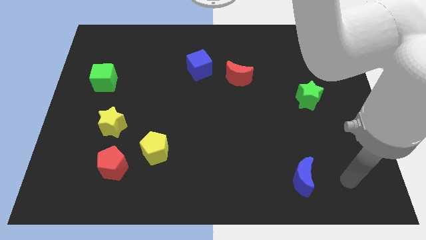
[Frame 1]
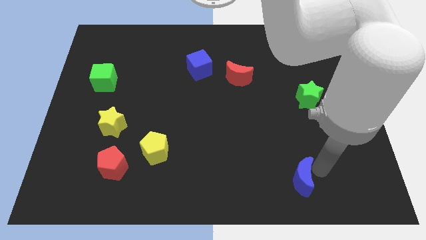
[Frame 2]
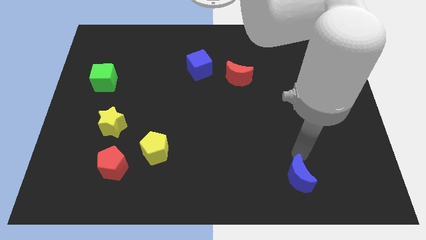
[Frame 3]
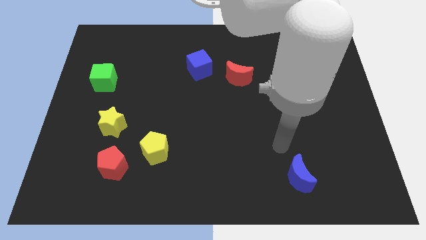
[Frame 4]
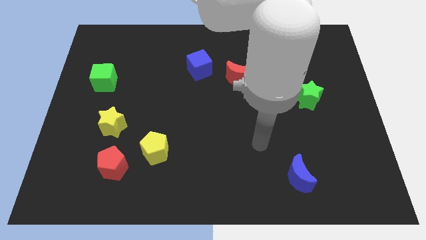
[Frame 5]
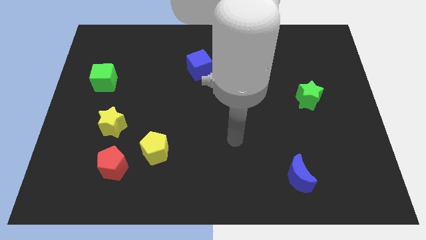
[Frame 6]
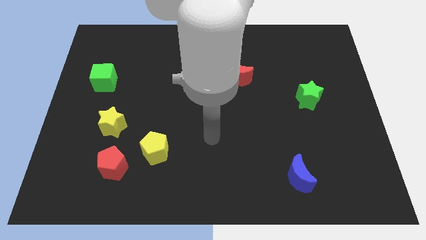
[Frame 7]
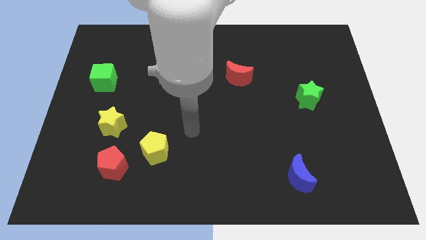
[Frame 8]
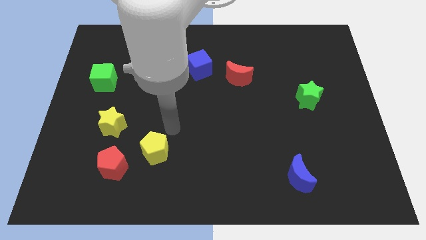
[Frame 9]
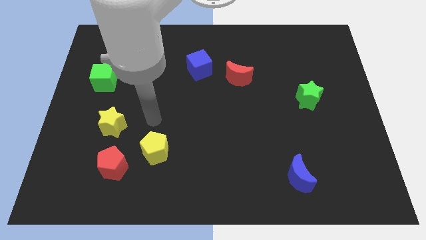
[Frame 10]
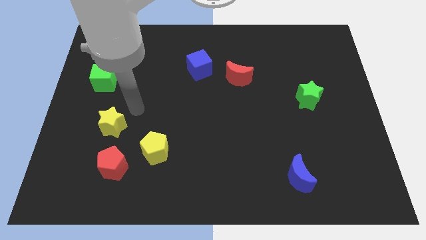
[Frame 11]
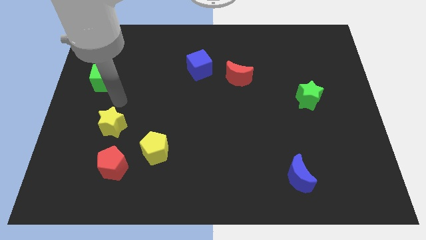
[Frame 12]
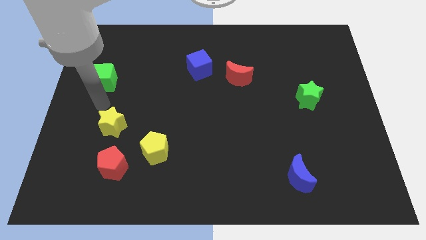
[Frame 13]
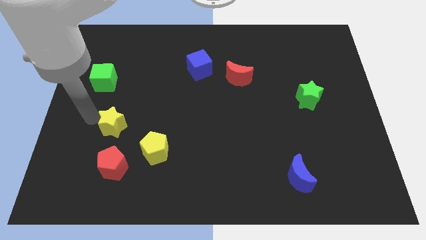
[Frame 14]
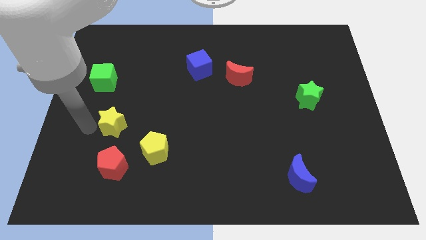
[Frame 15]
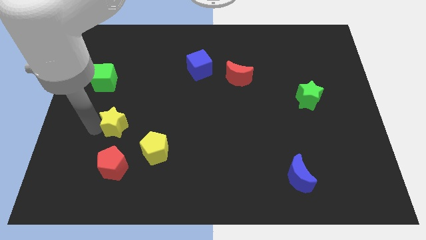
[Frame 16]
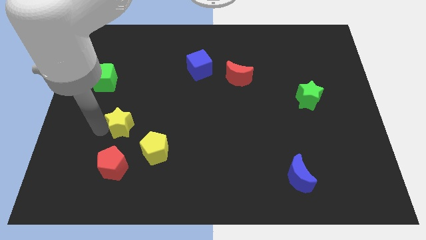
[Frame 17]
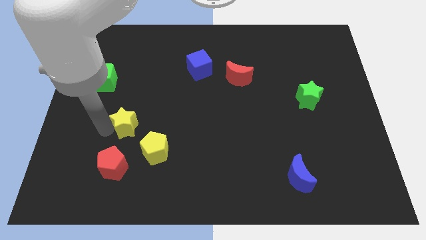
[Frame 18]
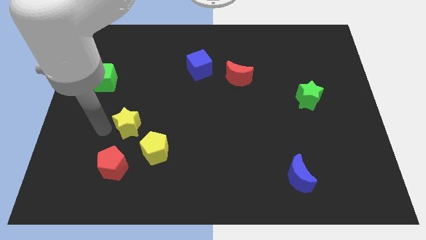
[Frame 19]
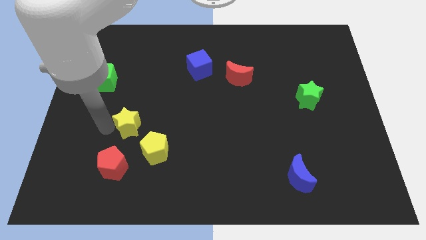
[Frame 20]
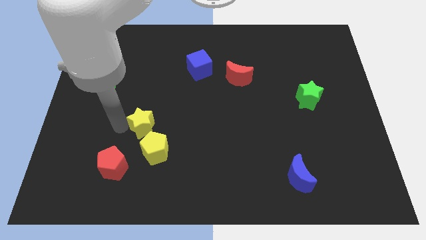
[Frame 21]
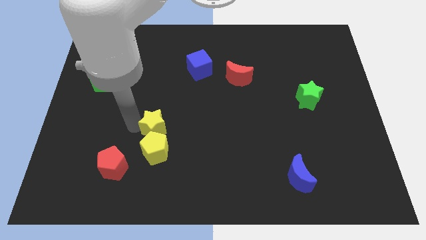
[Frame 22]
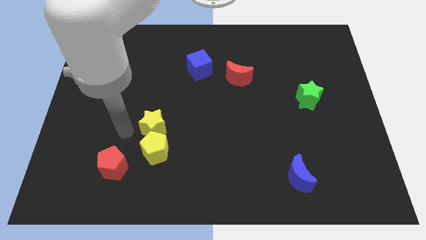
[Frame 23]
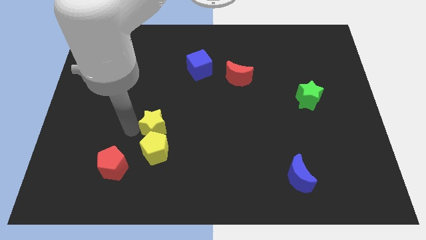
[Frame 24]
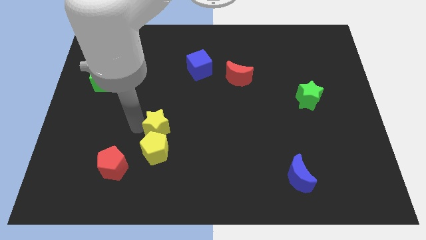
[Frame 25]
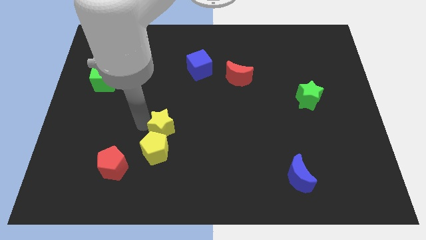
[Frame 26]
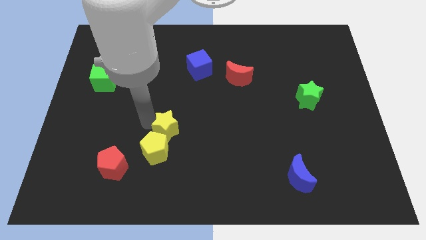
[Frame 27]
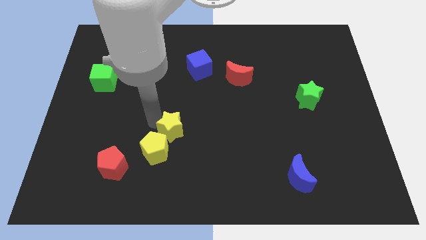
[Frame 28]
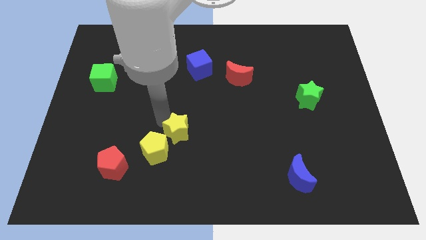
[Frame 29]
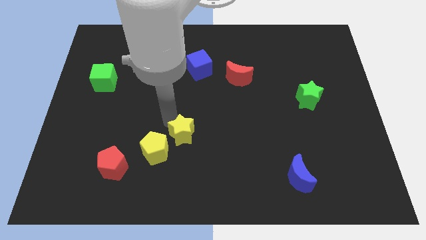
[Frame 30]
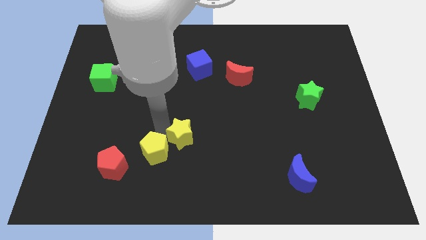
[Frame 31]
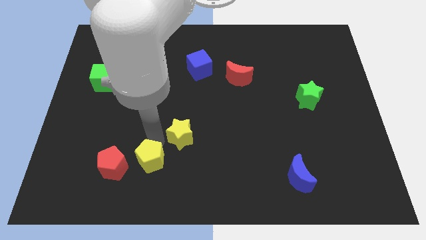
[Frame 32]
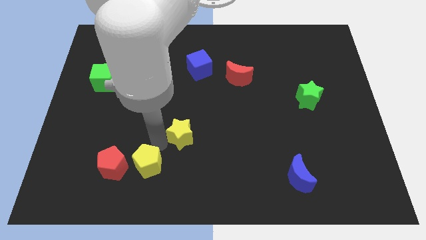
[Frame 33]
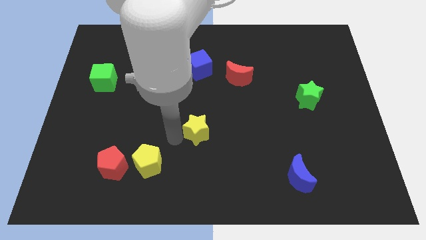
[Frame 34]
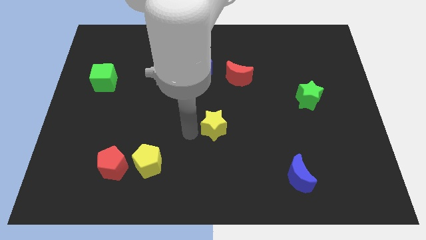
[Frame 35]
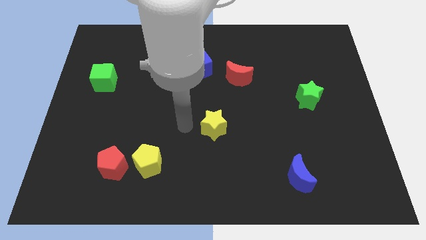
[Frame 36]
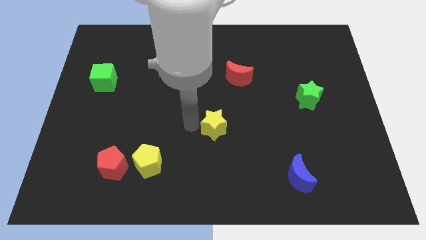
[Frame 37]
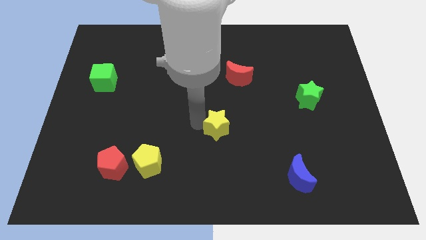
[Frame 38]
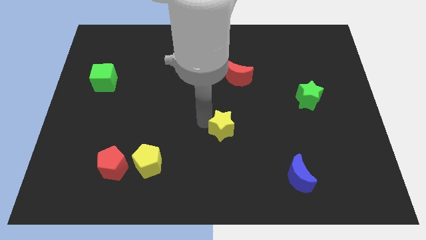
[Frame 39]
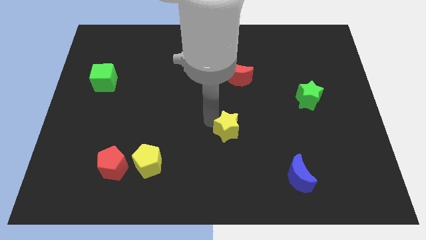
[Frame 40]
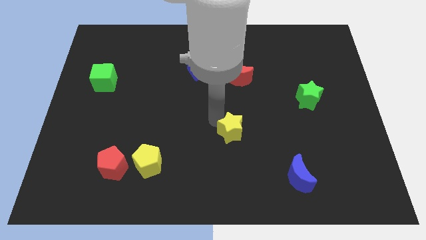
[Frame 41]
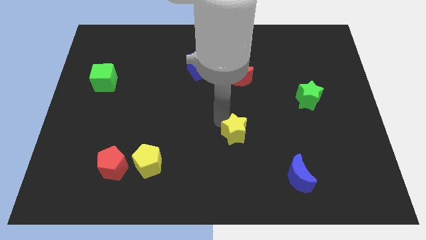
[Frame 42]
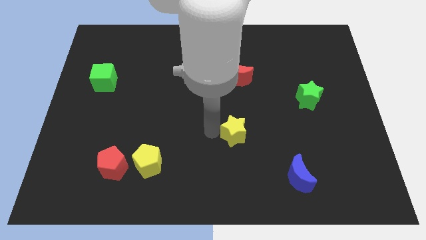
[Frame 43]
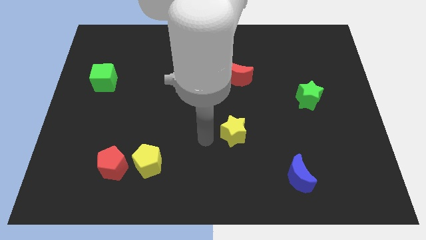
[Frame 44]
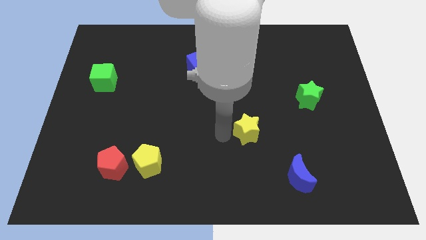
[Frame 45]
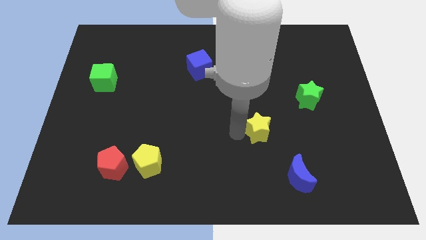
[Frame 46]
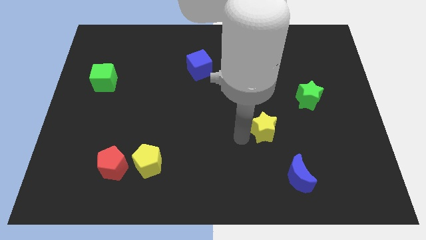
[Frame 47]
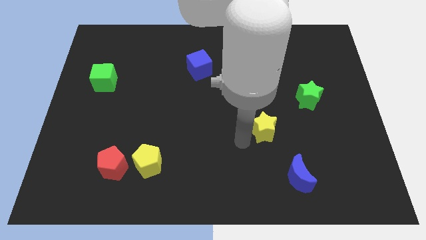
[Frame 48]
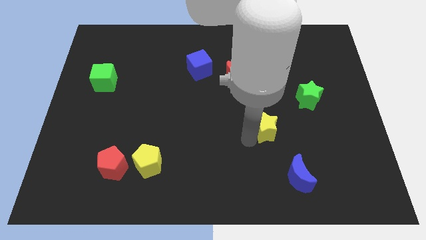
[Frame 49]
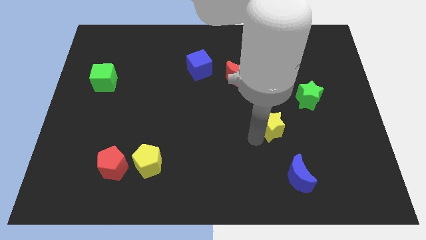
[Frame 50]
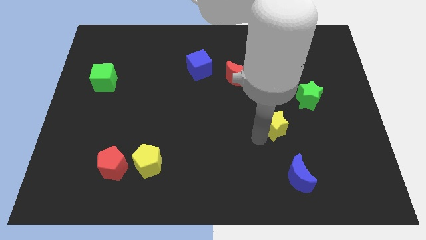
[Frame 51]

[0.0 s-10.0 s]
push the yellow star to the bottom left side of the green star

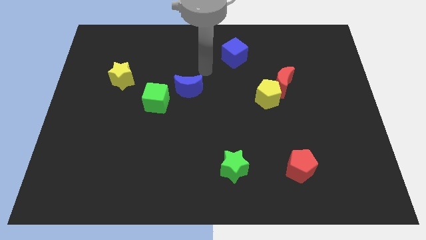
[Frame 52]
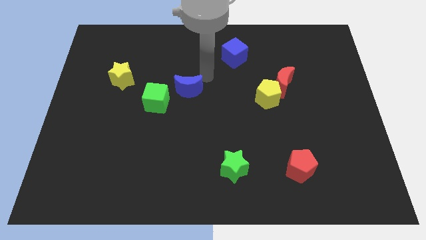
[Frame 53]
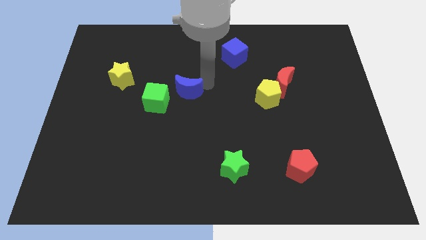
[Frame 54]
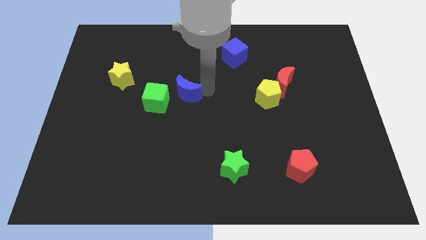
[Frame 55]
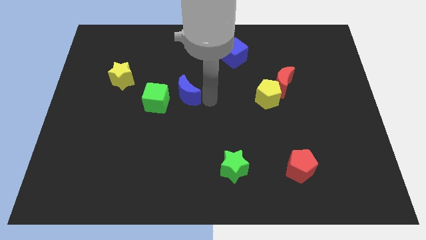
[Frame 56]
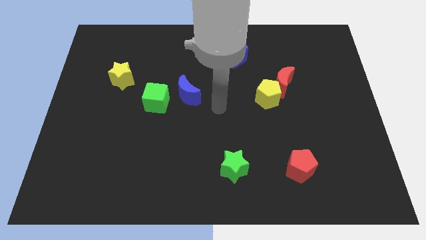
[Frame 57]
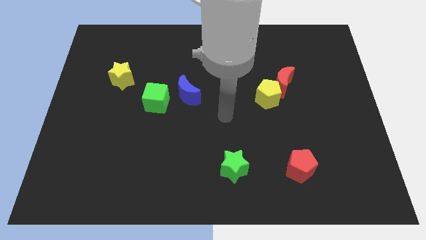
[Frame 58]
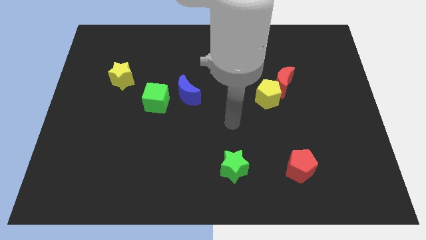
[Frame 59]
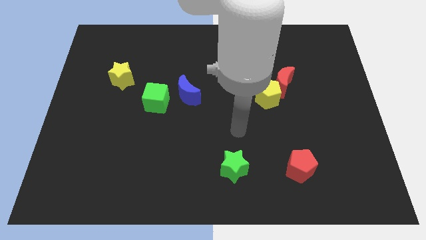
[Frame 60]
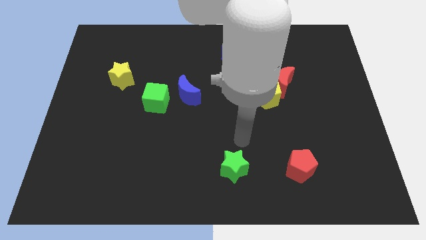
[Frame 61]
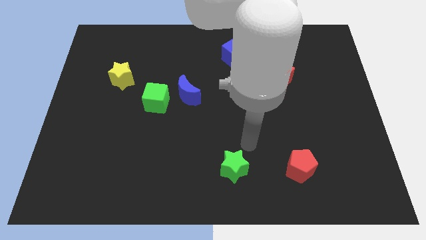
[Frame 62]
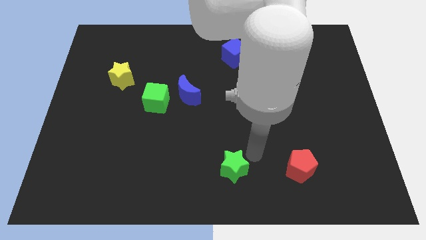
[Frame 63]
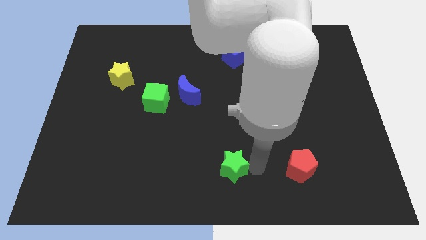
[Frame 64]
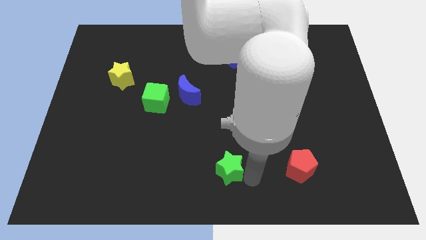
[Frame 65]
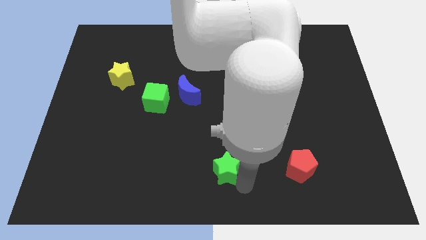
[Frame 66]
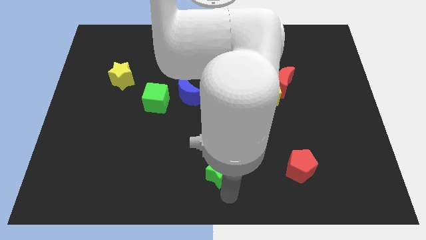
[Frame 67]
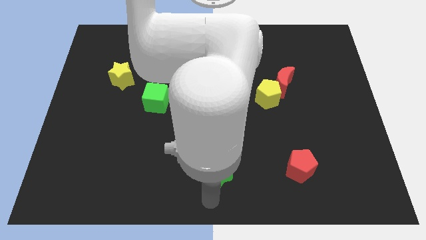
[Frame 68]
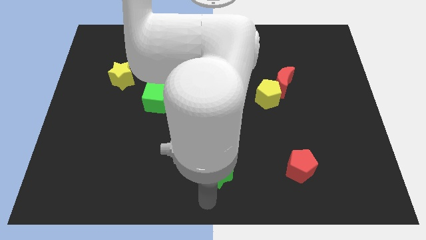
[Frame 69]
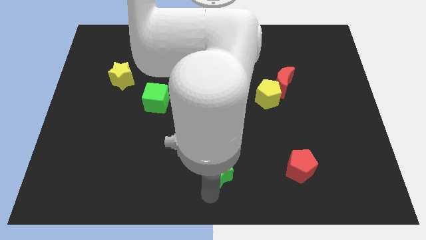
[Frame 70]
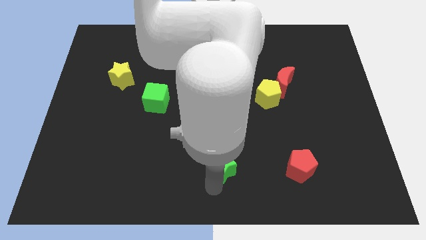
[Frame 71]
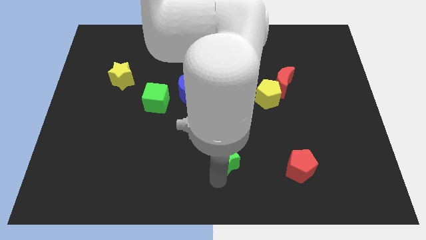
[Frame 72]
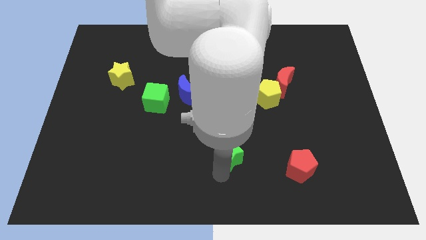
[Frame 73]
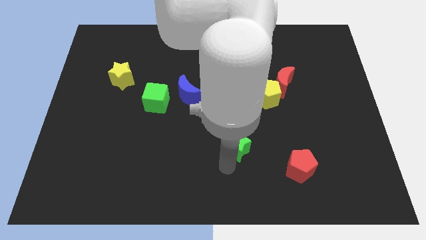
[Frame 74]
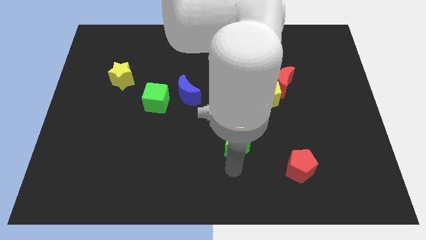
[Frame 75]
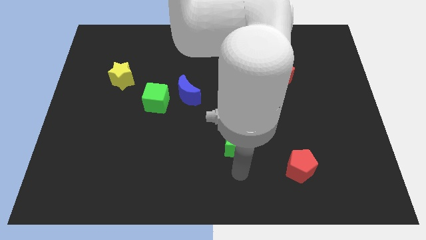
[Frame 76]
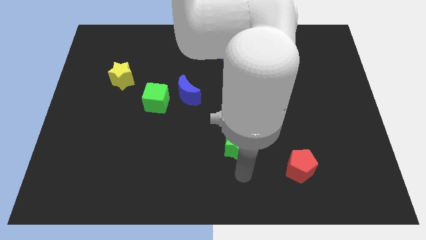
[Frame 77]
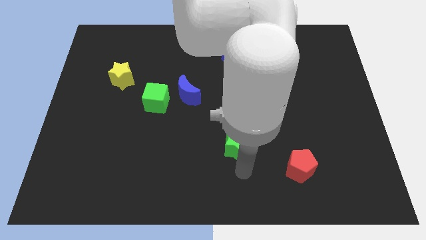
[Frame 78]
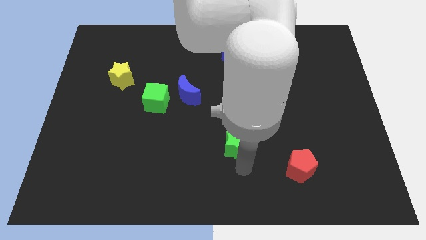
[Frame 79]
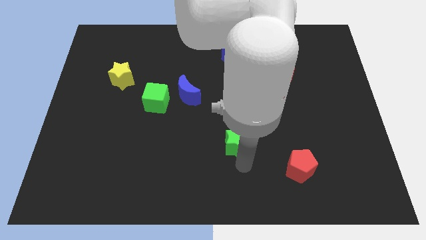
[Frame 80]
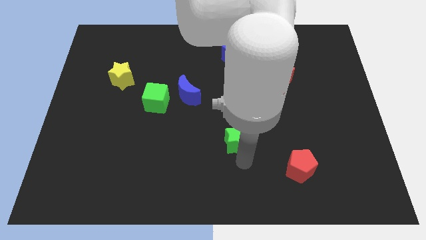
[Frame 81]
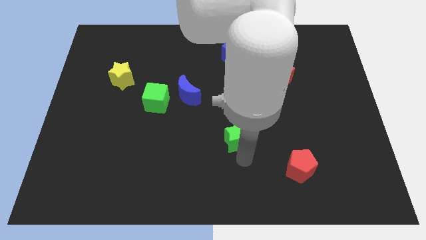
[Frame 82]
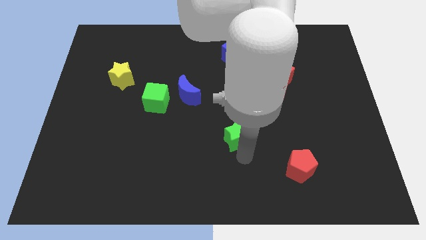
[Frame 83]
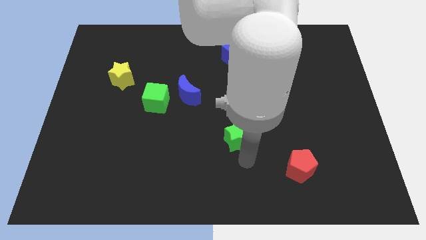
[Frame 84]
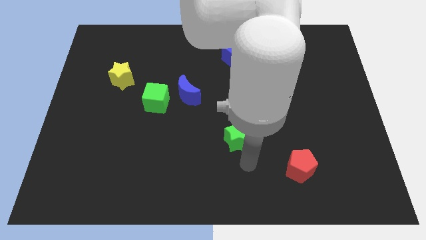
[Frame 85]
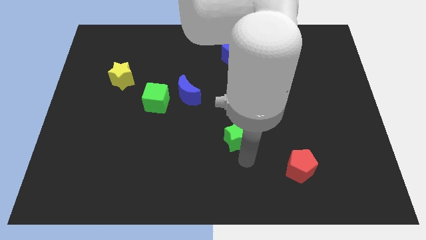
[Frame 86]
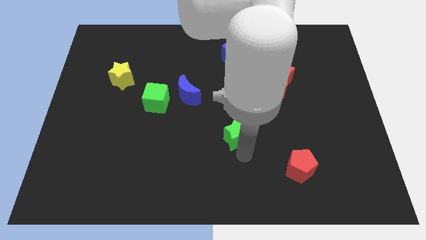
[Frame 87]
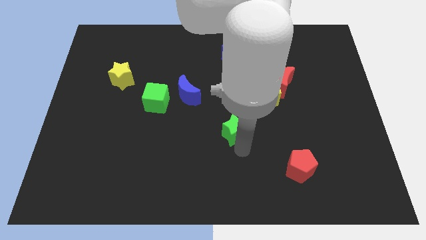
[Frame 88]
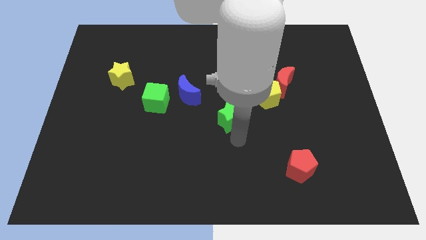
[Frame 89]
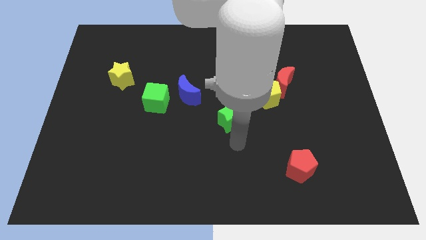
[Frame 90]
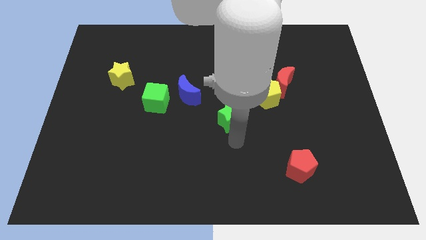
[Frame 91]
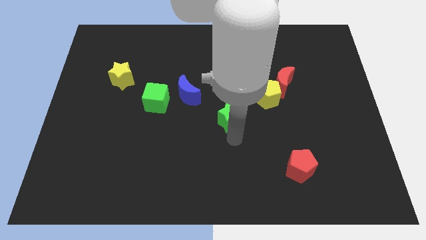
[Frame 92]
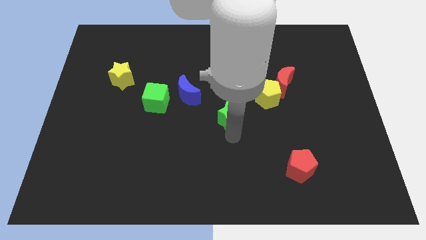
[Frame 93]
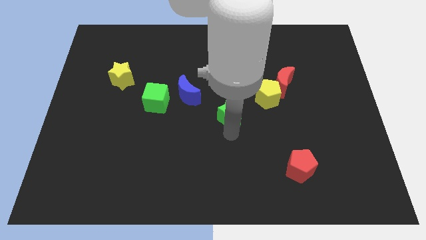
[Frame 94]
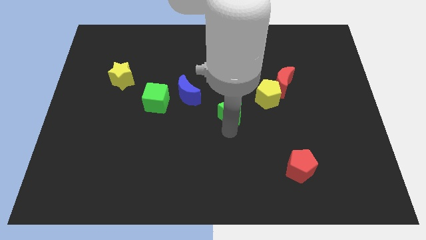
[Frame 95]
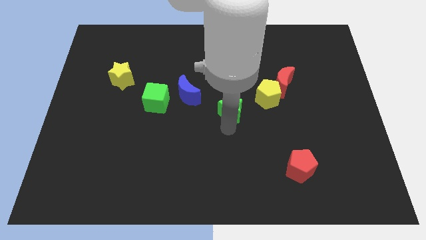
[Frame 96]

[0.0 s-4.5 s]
push the green star just left of the yellow pentagon
